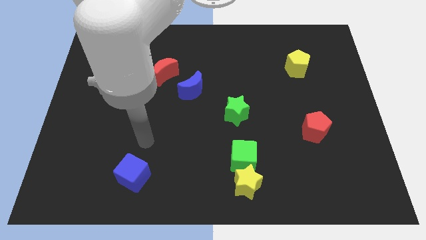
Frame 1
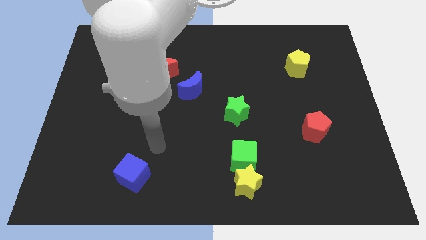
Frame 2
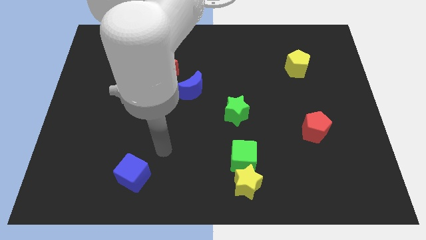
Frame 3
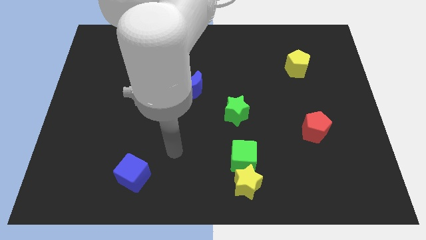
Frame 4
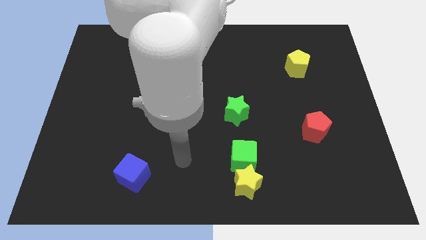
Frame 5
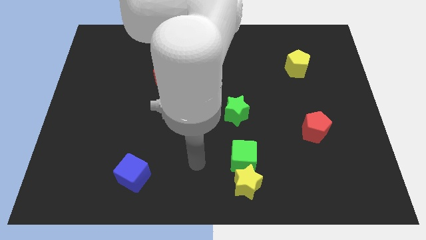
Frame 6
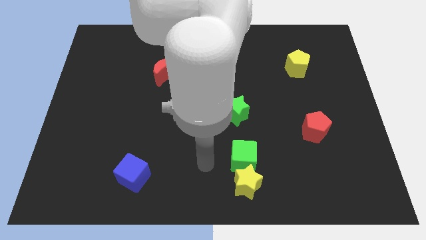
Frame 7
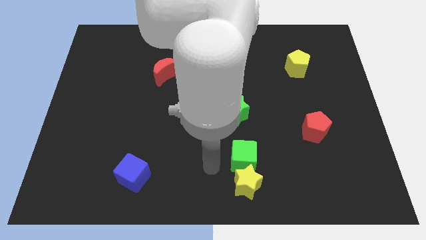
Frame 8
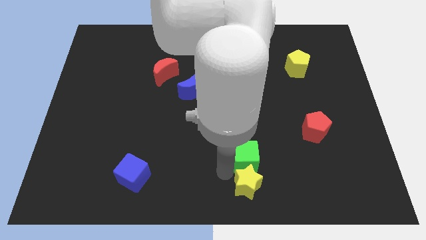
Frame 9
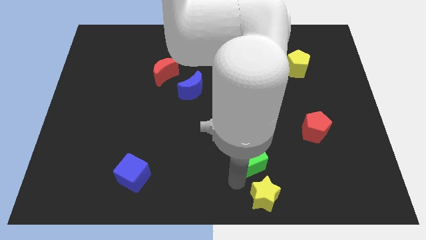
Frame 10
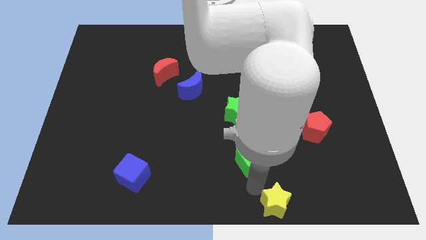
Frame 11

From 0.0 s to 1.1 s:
pull the green cube apart from the yellow star

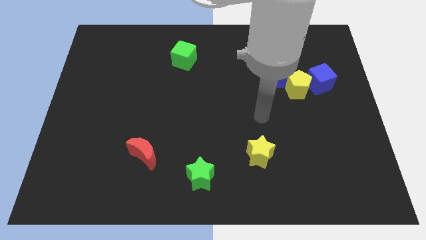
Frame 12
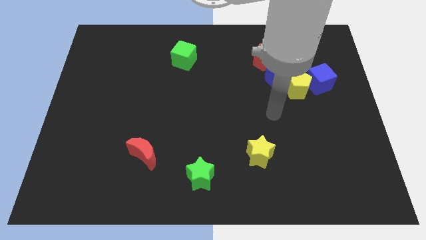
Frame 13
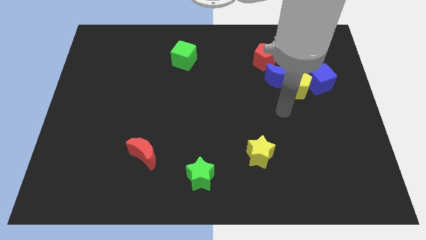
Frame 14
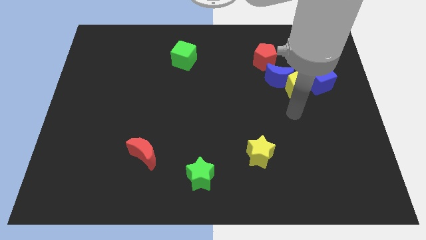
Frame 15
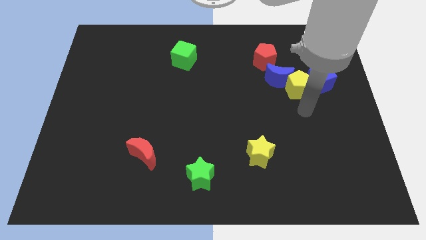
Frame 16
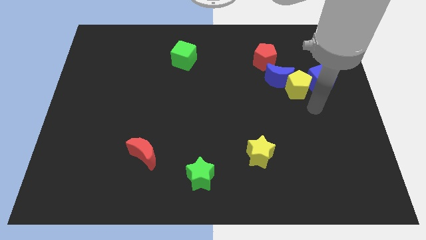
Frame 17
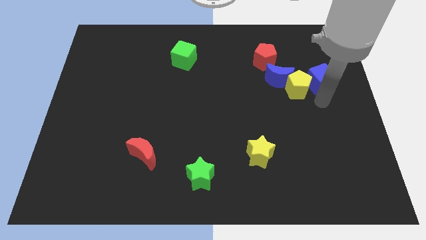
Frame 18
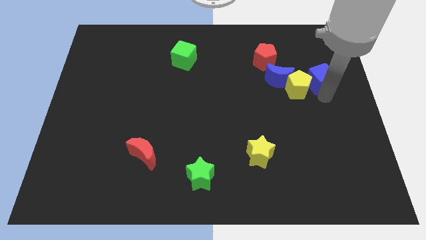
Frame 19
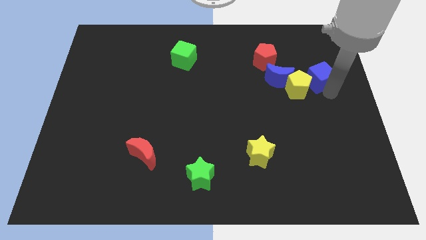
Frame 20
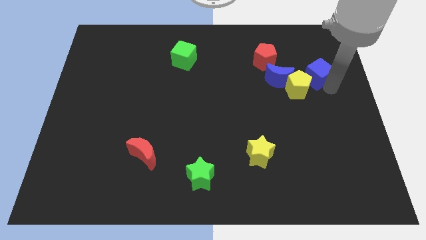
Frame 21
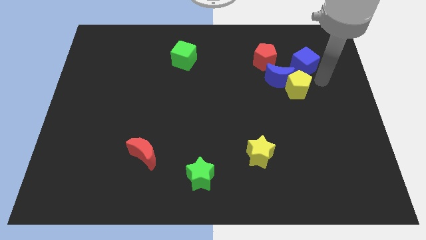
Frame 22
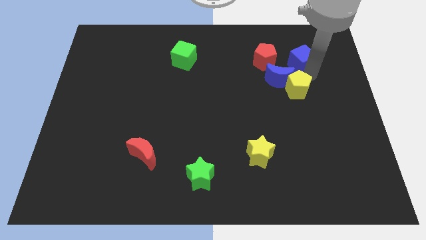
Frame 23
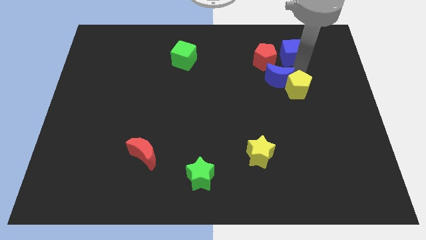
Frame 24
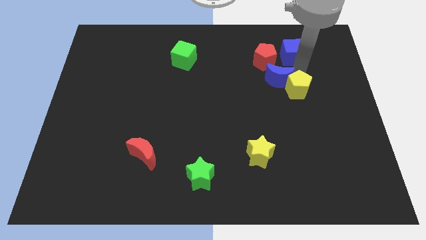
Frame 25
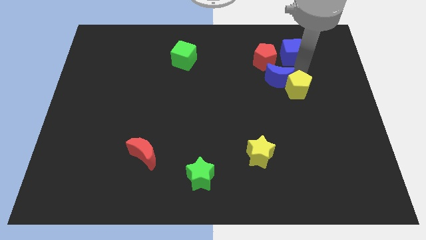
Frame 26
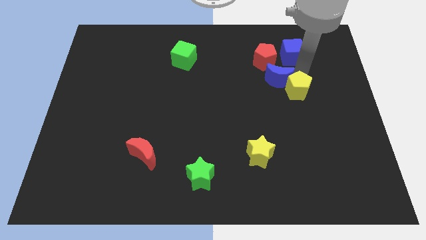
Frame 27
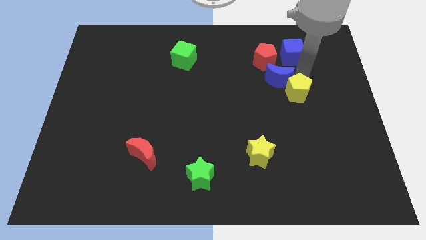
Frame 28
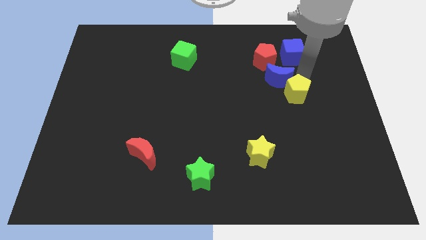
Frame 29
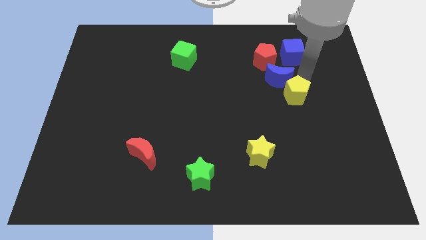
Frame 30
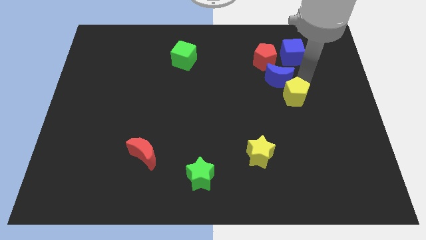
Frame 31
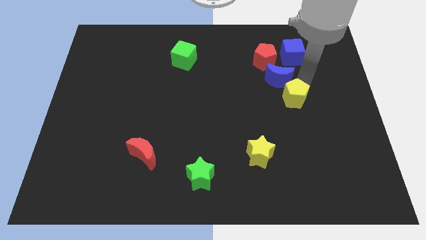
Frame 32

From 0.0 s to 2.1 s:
pull the yellow pentagon apart from the blue moon and blue cube

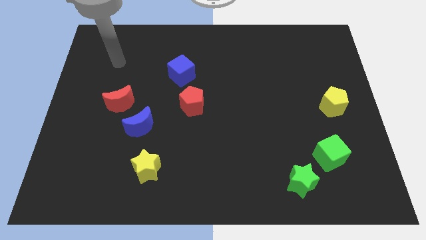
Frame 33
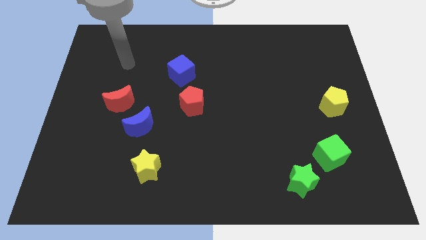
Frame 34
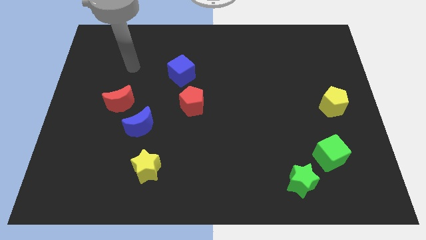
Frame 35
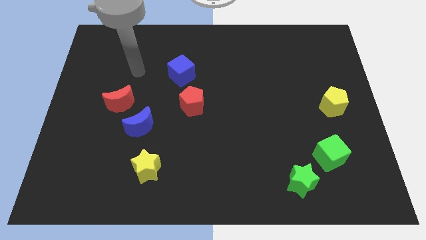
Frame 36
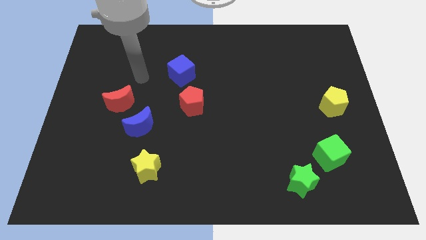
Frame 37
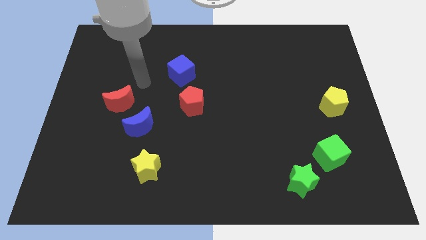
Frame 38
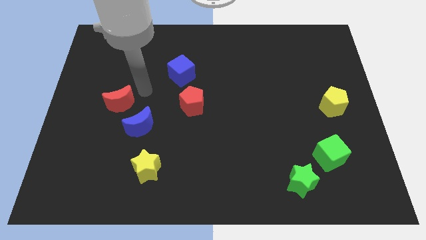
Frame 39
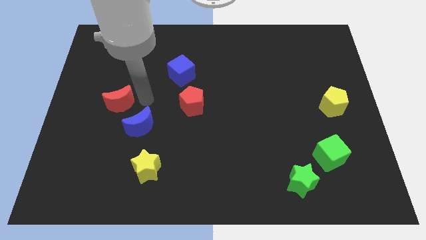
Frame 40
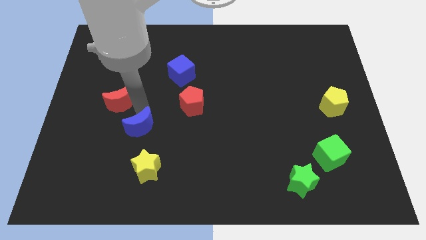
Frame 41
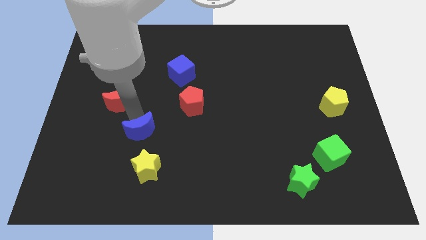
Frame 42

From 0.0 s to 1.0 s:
move the red moon away from the blue moon

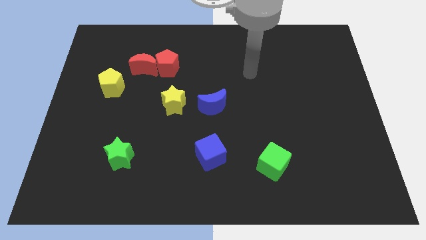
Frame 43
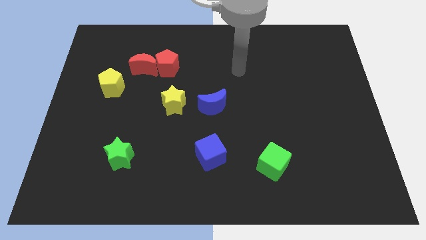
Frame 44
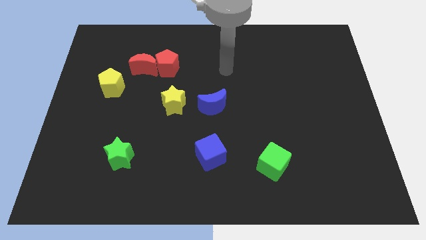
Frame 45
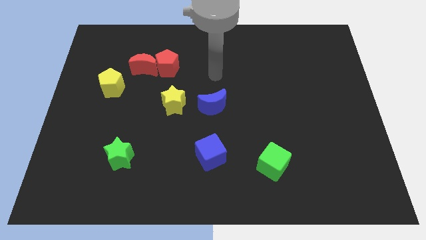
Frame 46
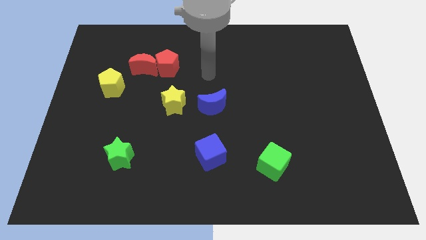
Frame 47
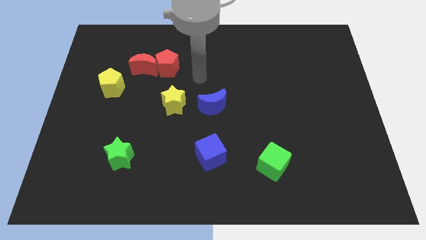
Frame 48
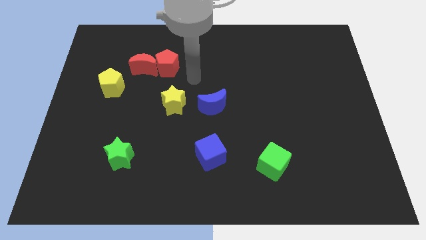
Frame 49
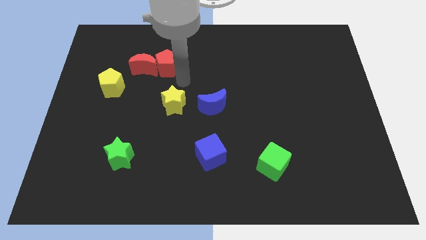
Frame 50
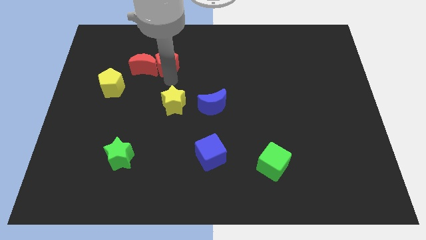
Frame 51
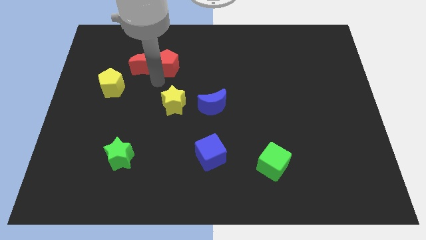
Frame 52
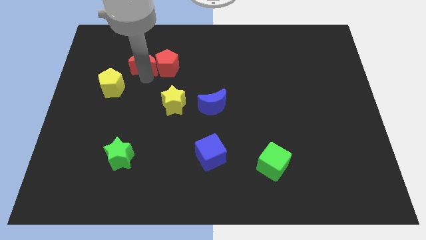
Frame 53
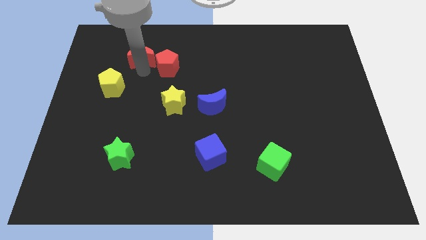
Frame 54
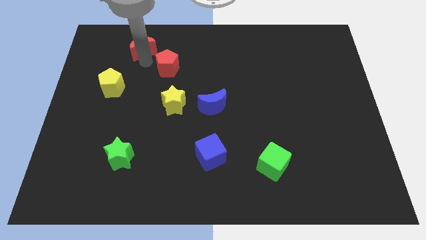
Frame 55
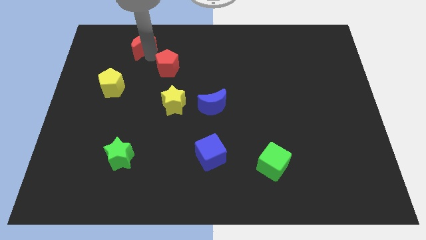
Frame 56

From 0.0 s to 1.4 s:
move the red pentagon away from the red moon

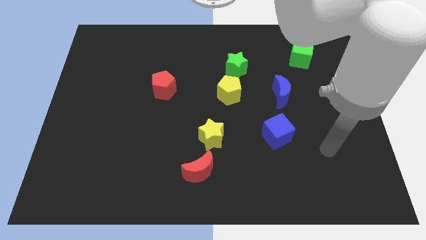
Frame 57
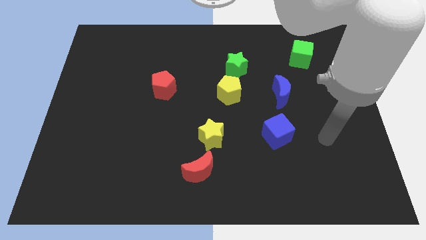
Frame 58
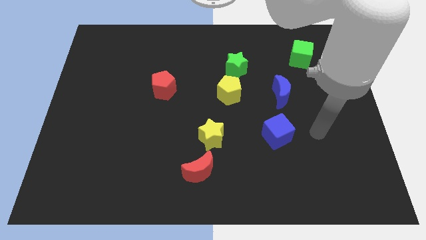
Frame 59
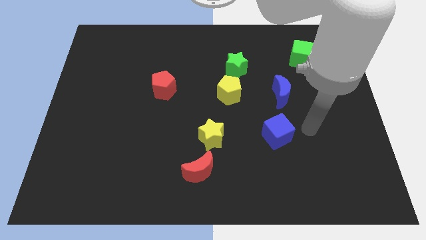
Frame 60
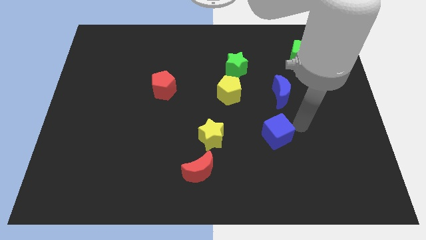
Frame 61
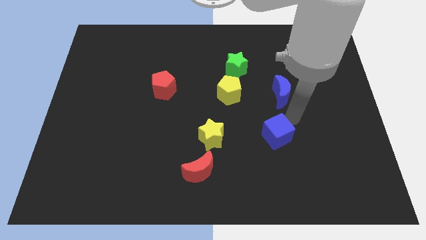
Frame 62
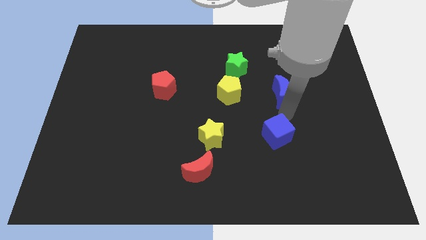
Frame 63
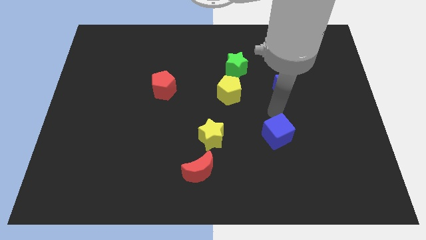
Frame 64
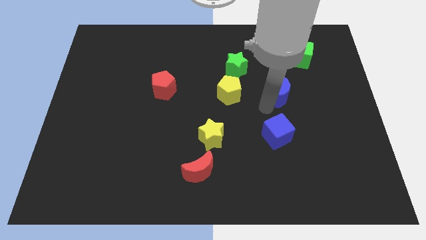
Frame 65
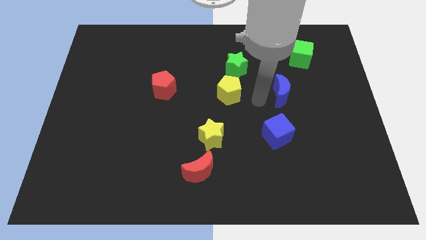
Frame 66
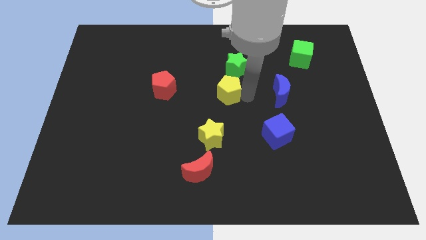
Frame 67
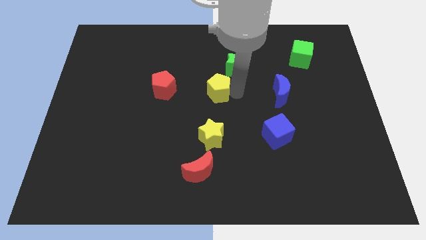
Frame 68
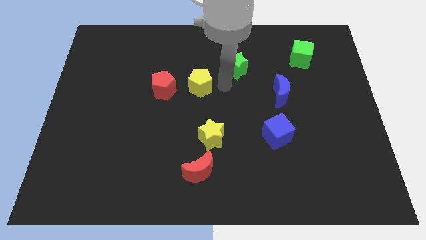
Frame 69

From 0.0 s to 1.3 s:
pull the green star apart from the yellow pentagon

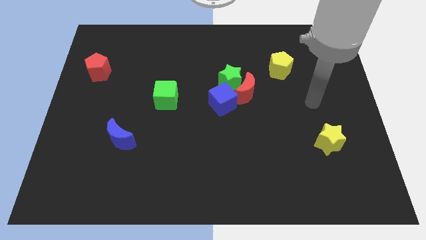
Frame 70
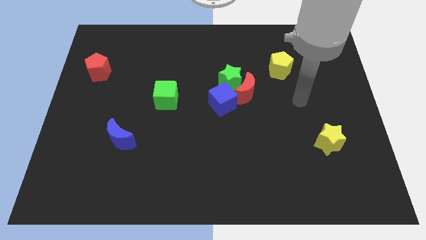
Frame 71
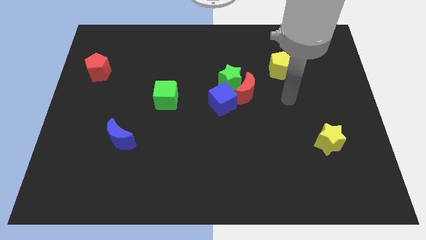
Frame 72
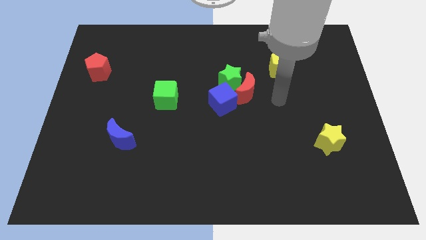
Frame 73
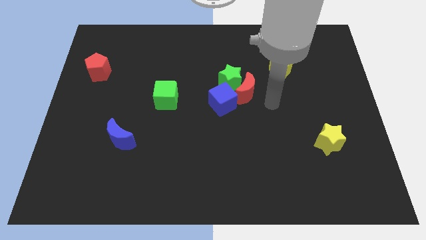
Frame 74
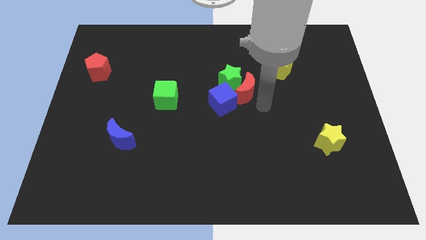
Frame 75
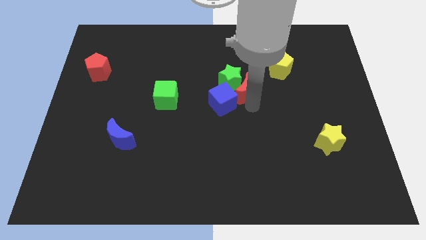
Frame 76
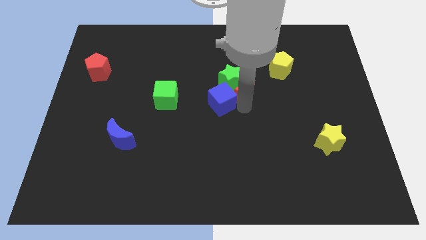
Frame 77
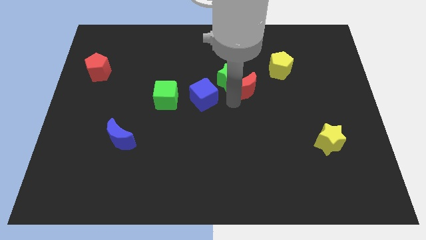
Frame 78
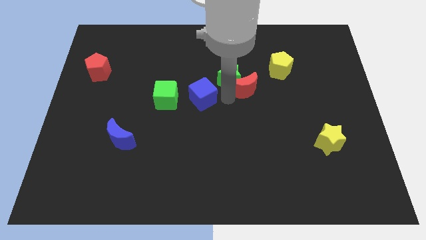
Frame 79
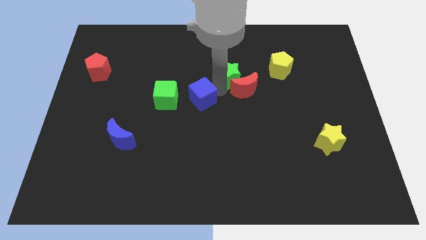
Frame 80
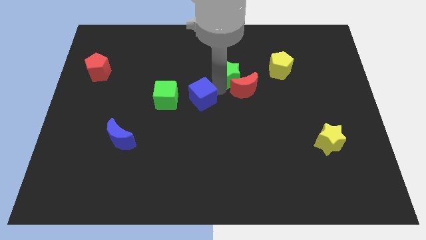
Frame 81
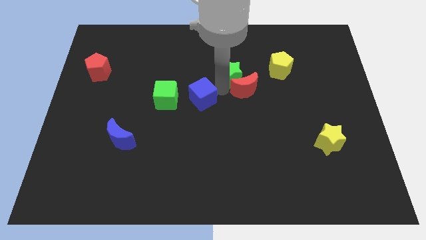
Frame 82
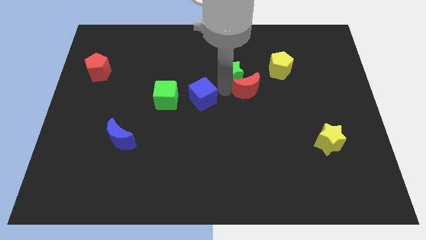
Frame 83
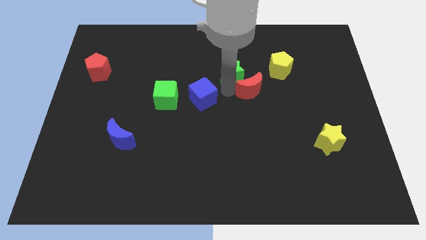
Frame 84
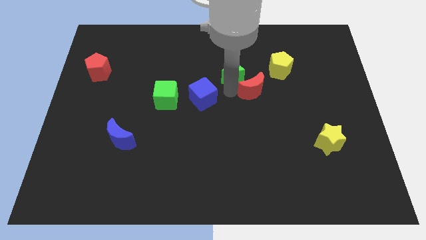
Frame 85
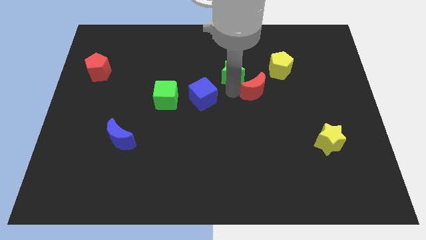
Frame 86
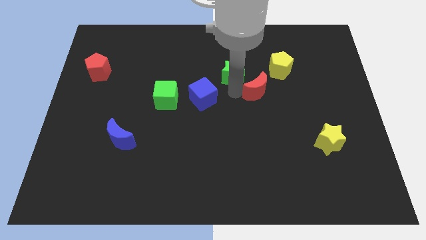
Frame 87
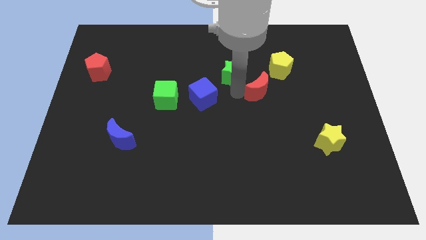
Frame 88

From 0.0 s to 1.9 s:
separate the red moon from the green star and blue cube

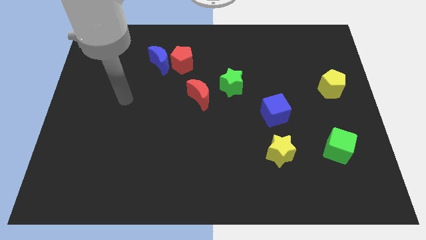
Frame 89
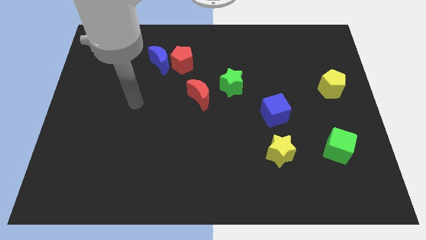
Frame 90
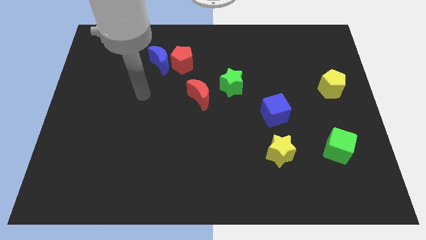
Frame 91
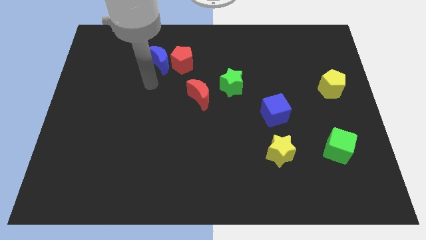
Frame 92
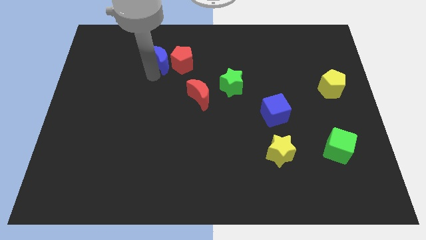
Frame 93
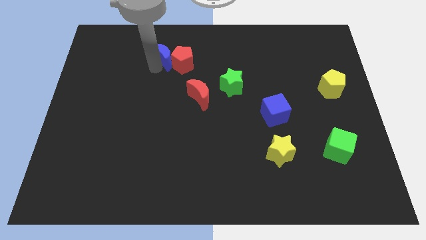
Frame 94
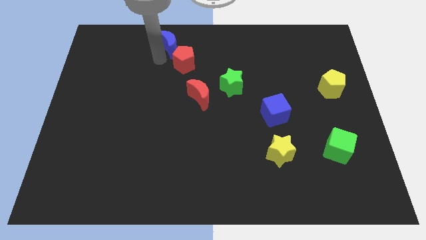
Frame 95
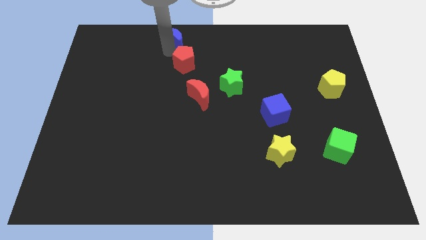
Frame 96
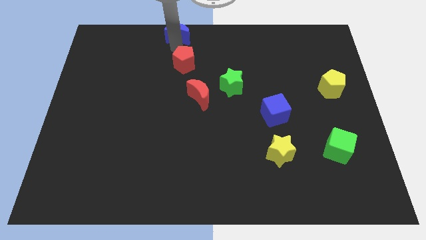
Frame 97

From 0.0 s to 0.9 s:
move the red pentagon away from the blue moon
